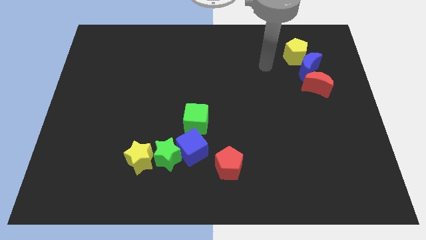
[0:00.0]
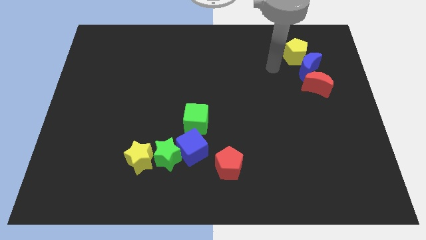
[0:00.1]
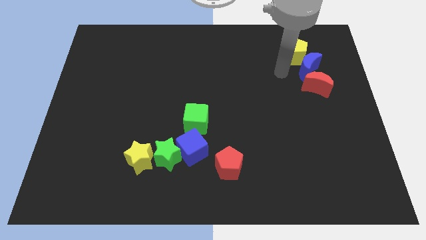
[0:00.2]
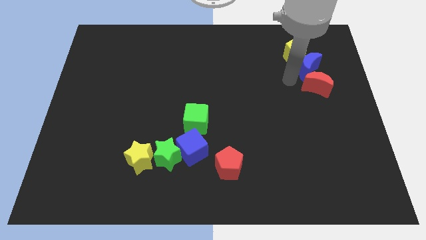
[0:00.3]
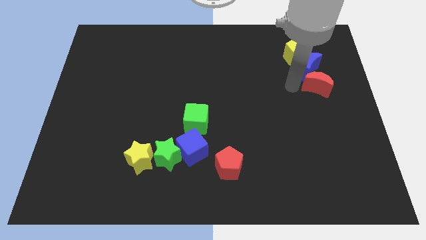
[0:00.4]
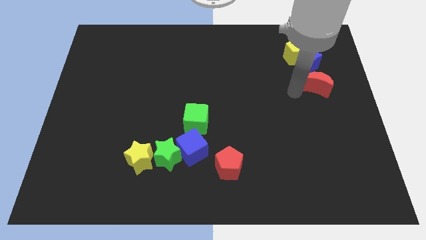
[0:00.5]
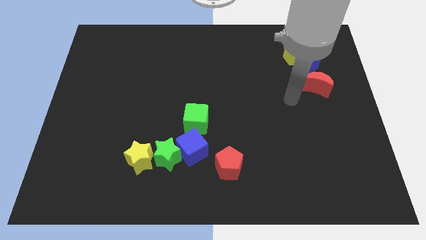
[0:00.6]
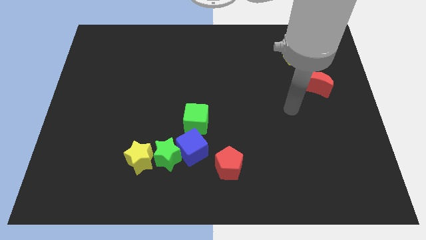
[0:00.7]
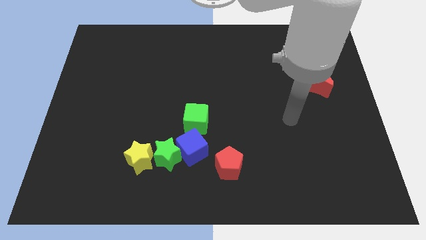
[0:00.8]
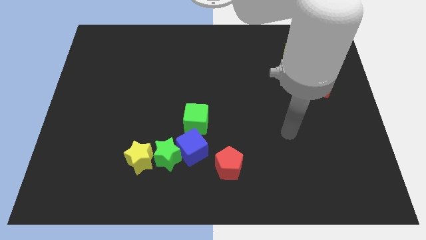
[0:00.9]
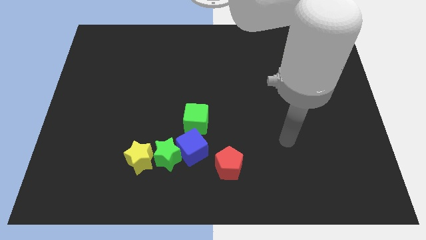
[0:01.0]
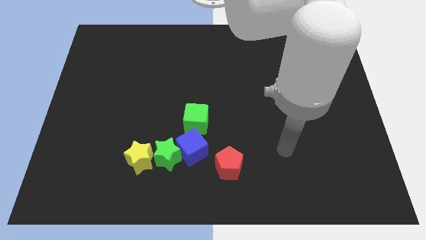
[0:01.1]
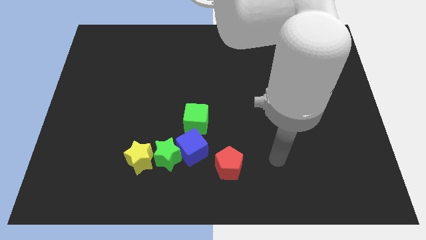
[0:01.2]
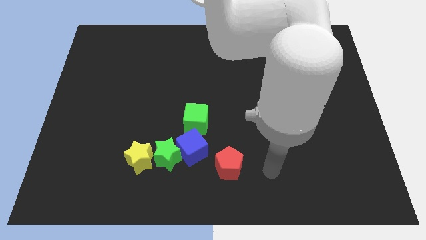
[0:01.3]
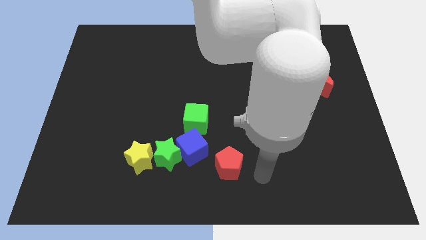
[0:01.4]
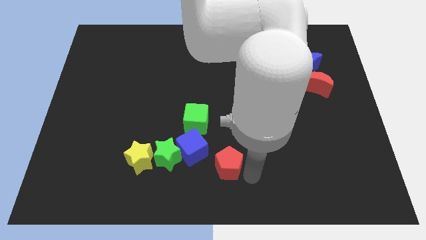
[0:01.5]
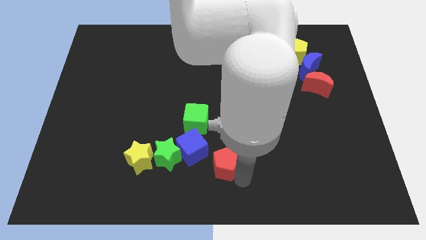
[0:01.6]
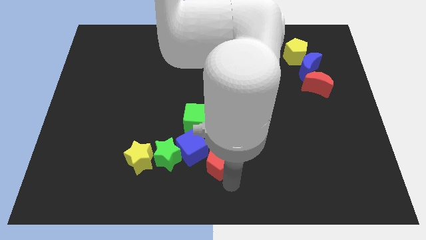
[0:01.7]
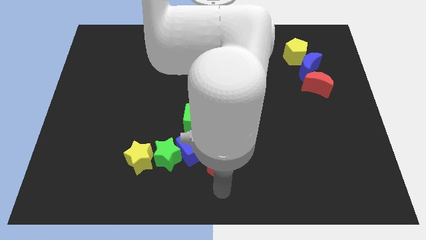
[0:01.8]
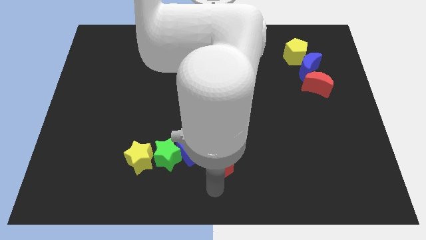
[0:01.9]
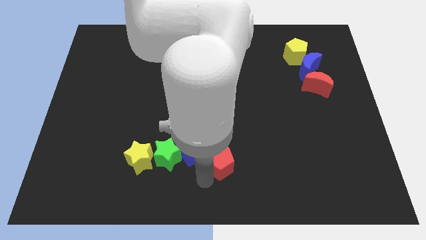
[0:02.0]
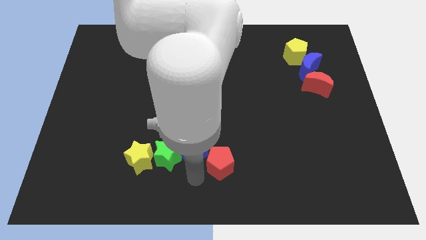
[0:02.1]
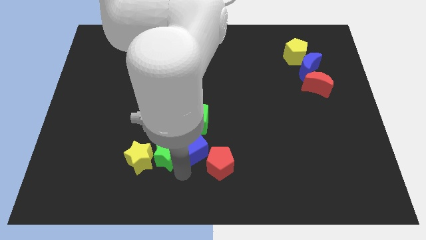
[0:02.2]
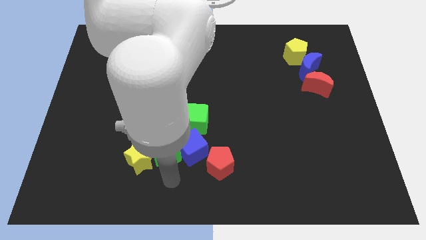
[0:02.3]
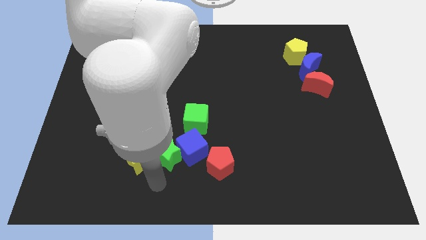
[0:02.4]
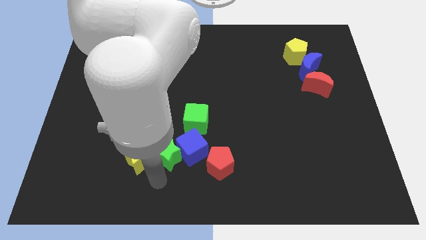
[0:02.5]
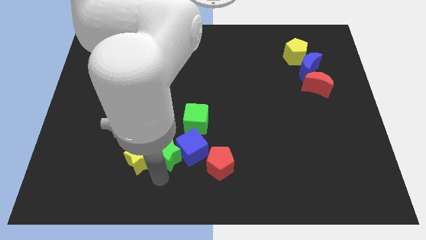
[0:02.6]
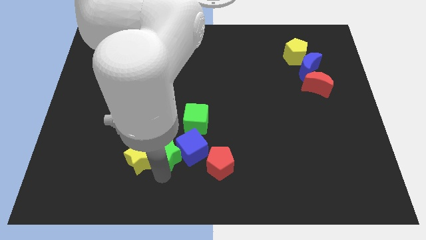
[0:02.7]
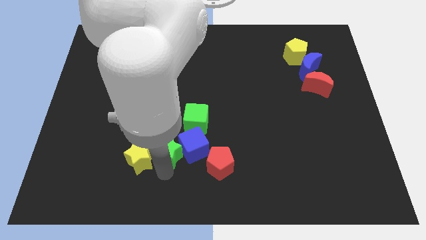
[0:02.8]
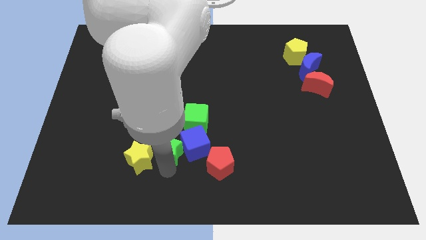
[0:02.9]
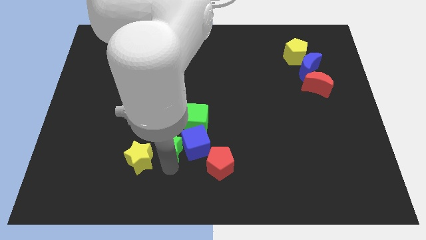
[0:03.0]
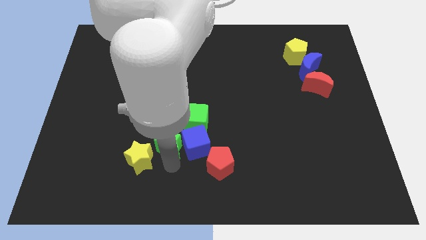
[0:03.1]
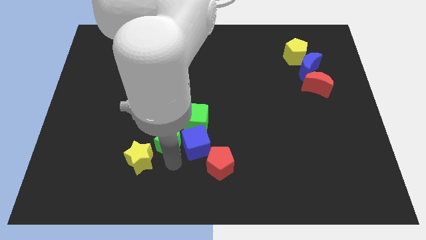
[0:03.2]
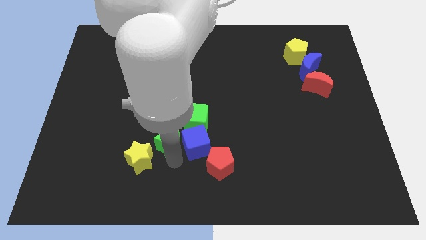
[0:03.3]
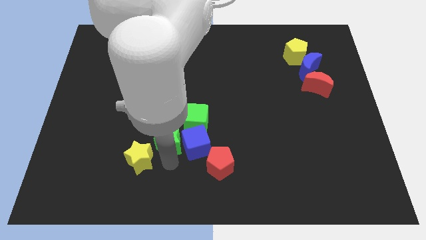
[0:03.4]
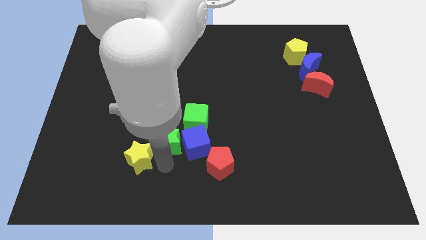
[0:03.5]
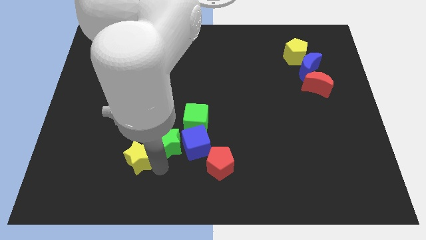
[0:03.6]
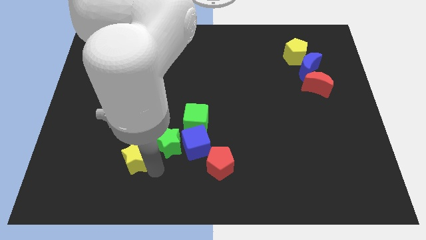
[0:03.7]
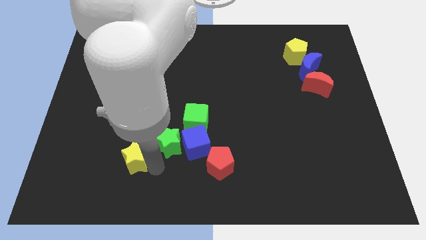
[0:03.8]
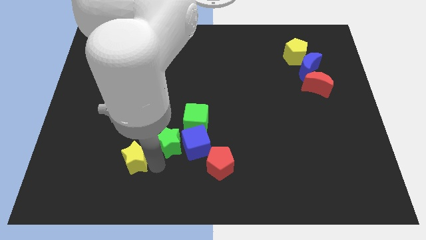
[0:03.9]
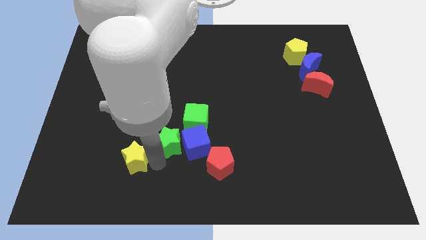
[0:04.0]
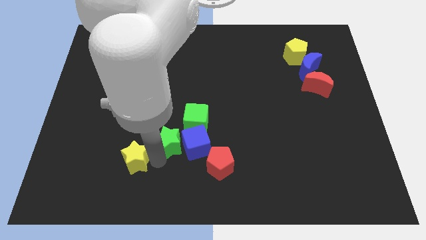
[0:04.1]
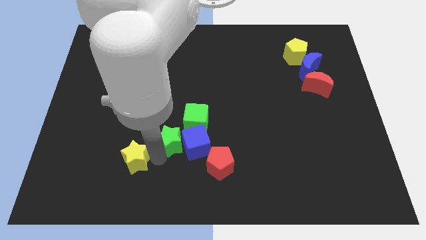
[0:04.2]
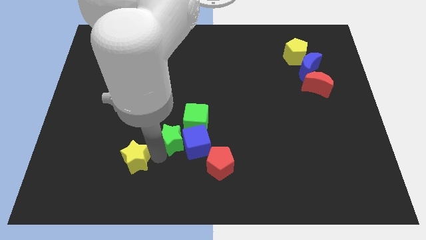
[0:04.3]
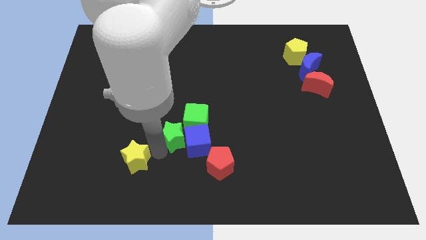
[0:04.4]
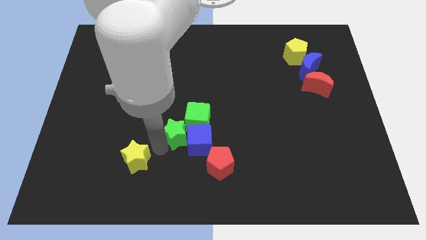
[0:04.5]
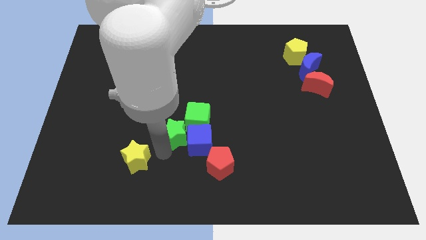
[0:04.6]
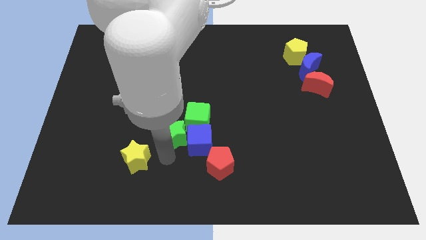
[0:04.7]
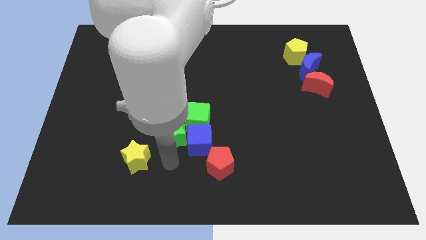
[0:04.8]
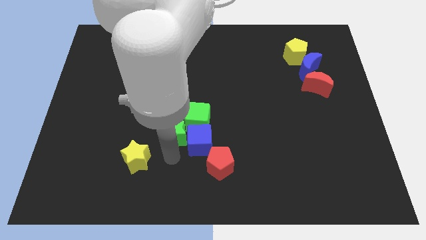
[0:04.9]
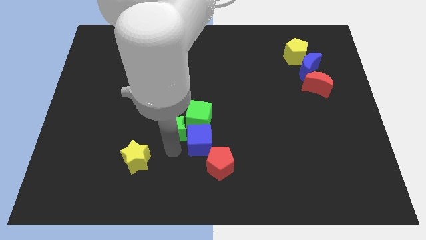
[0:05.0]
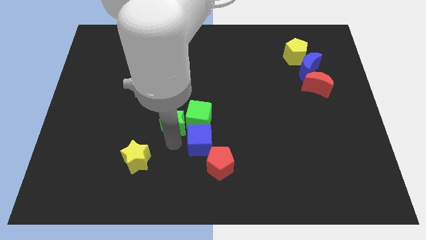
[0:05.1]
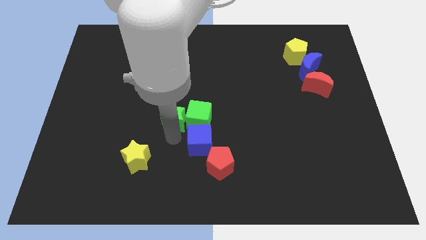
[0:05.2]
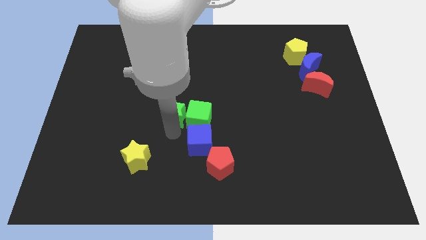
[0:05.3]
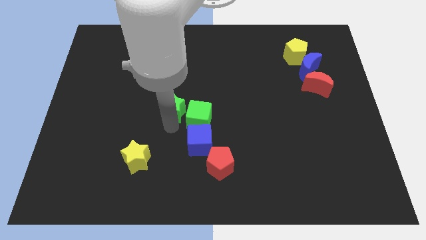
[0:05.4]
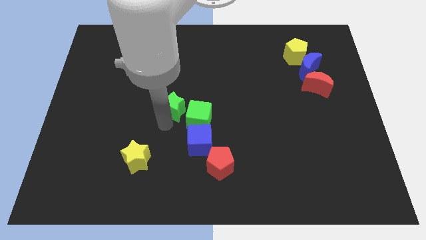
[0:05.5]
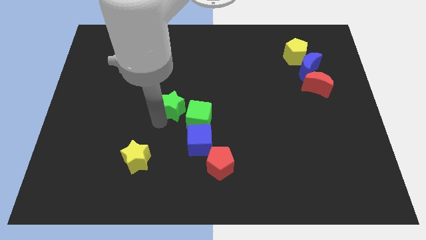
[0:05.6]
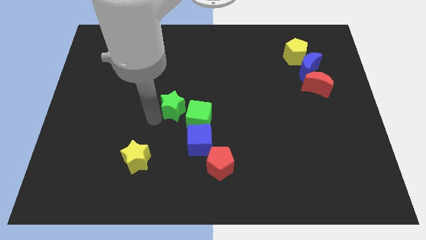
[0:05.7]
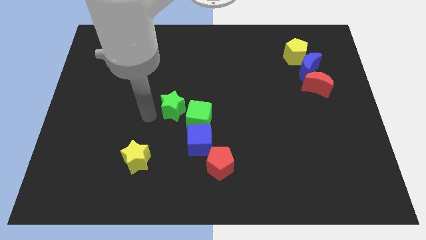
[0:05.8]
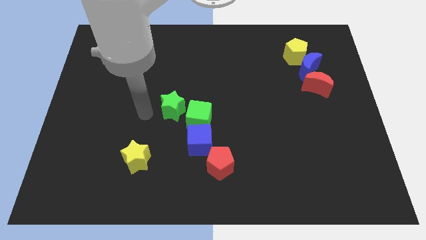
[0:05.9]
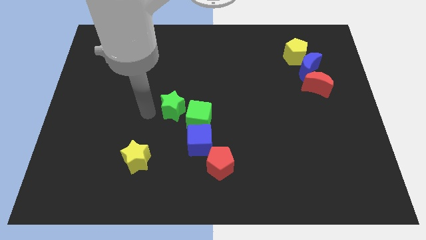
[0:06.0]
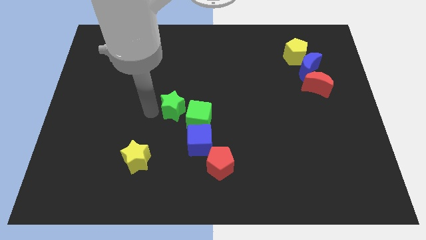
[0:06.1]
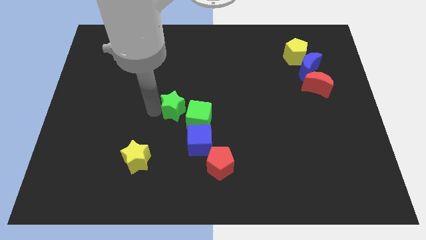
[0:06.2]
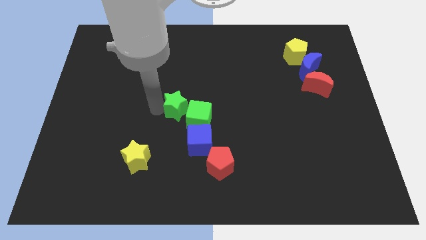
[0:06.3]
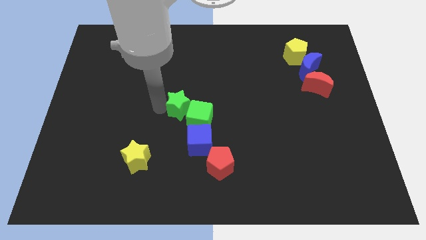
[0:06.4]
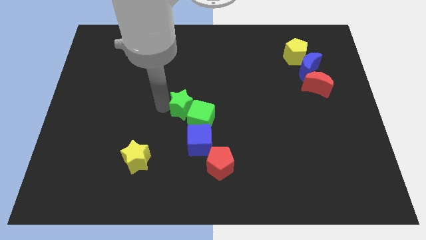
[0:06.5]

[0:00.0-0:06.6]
slide the green star to the top of the blue cube
